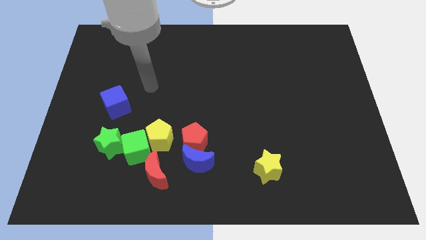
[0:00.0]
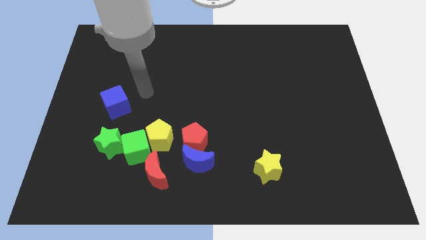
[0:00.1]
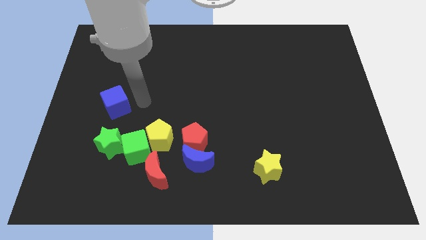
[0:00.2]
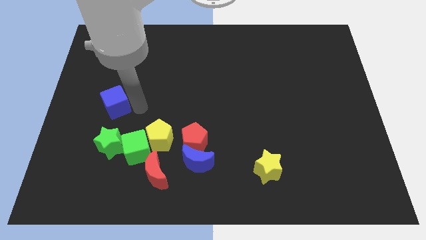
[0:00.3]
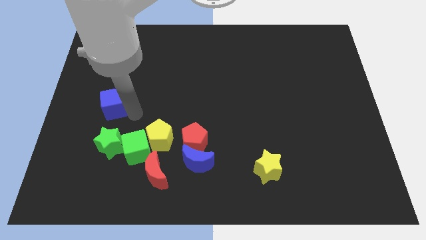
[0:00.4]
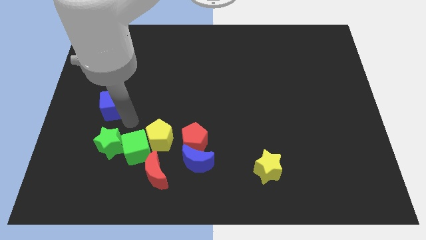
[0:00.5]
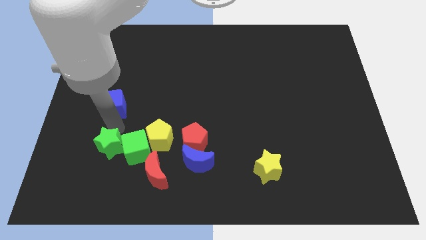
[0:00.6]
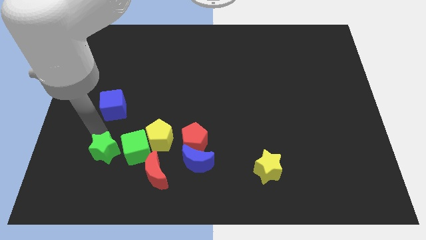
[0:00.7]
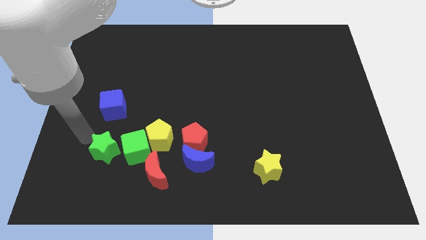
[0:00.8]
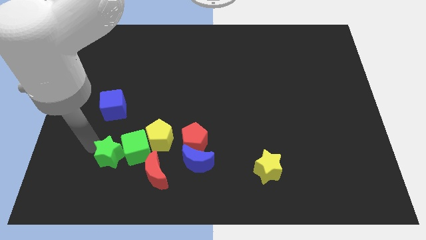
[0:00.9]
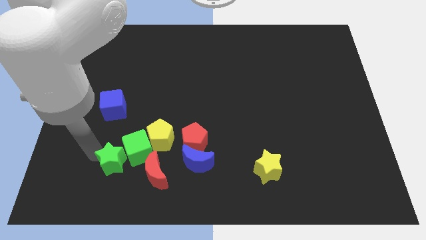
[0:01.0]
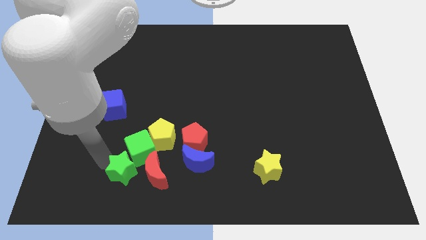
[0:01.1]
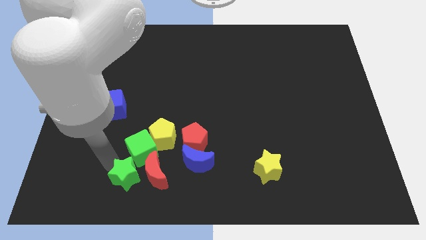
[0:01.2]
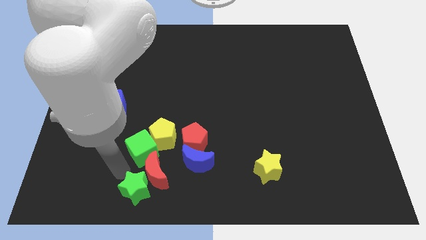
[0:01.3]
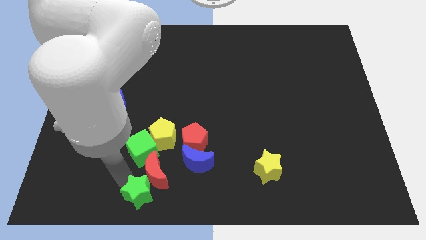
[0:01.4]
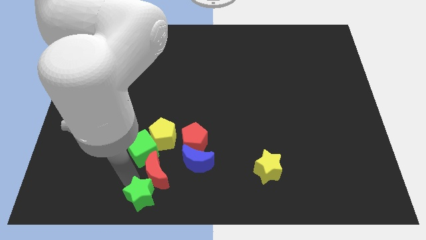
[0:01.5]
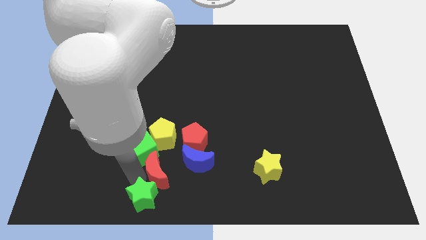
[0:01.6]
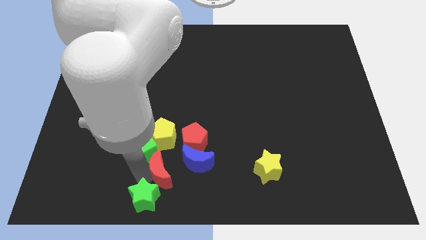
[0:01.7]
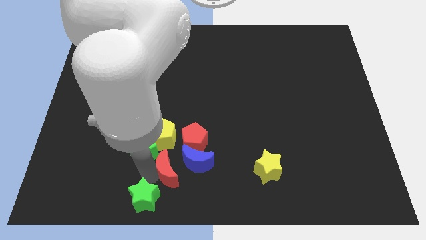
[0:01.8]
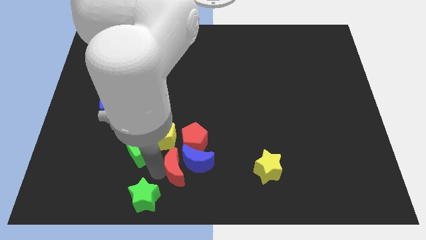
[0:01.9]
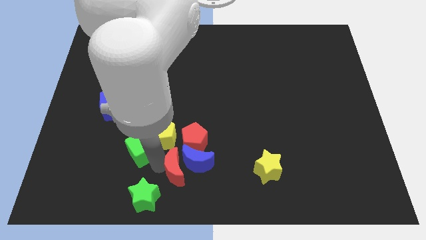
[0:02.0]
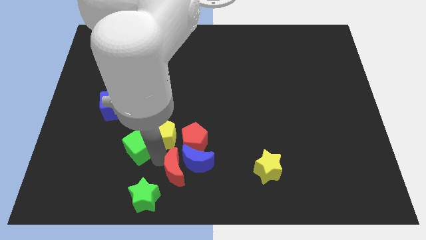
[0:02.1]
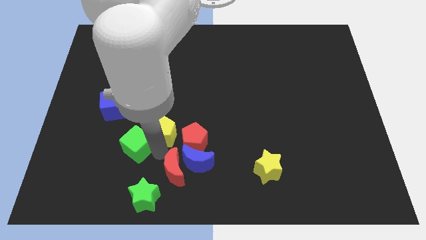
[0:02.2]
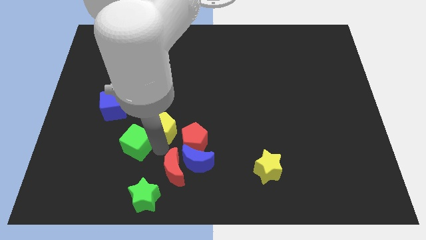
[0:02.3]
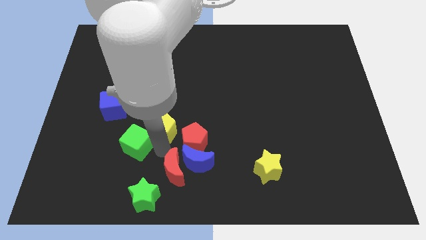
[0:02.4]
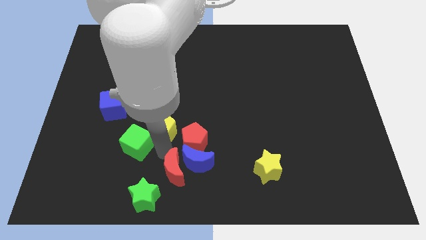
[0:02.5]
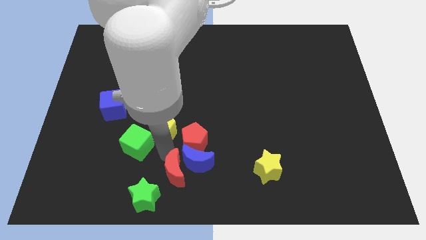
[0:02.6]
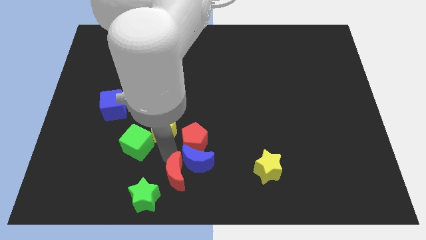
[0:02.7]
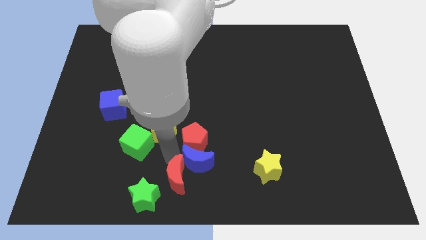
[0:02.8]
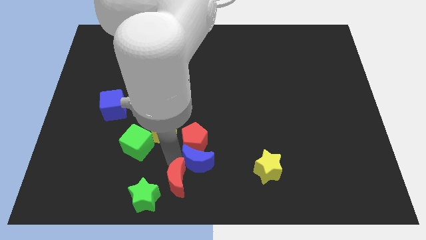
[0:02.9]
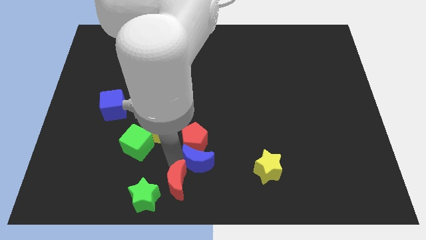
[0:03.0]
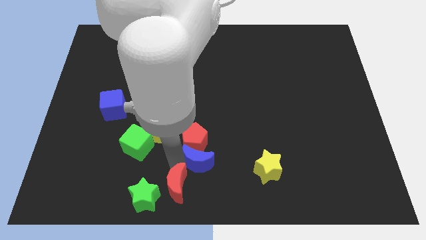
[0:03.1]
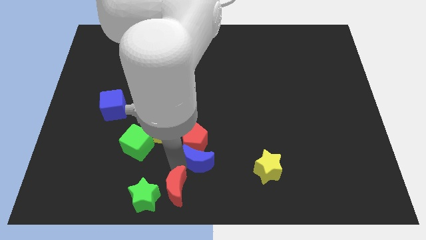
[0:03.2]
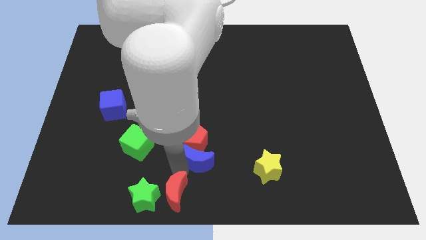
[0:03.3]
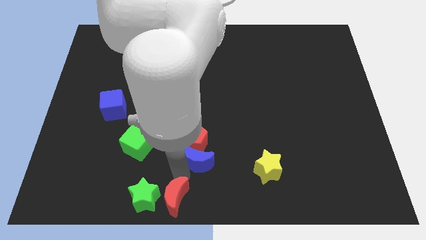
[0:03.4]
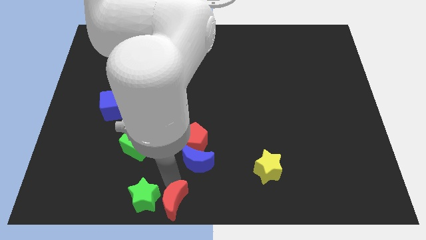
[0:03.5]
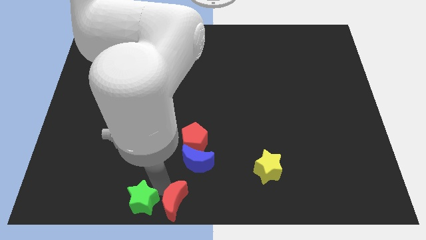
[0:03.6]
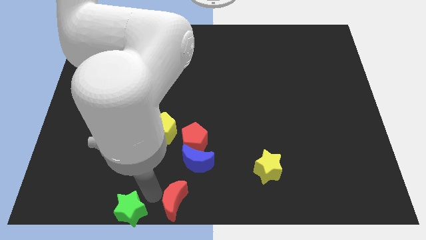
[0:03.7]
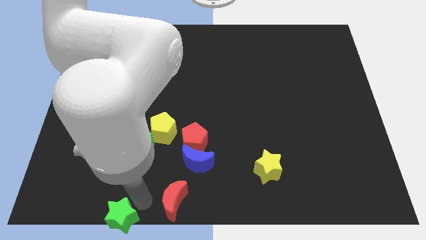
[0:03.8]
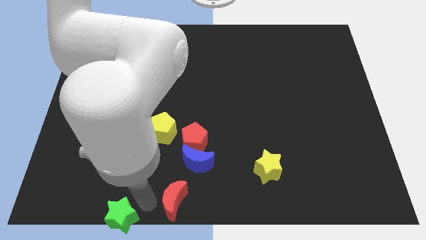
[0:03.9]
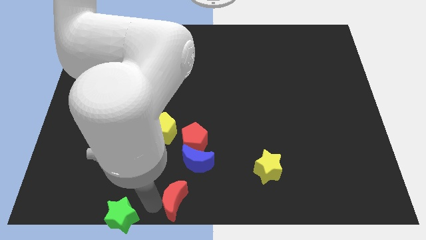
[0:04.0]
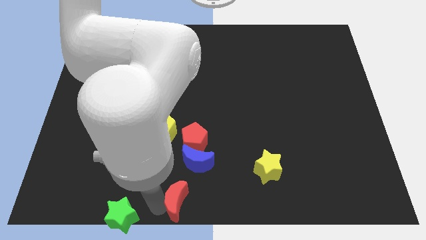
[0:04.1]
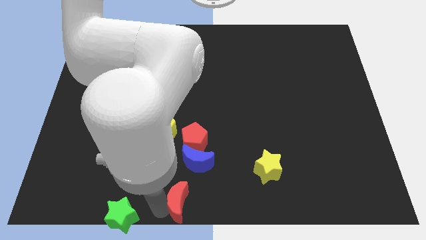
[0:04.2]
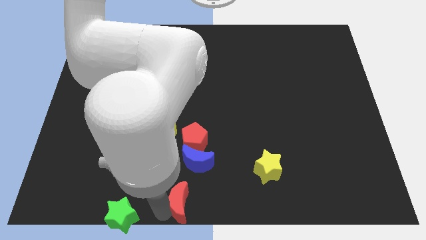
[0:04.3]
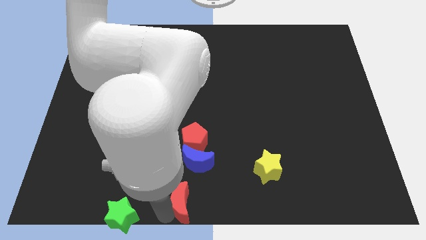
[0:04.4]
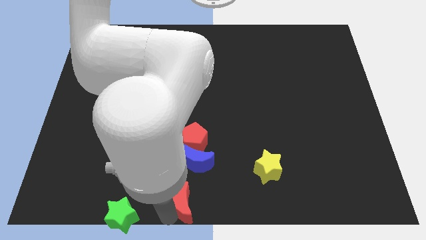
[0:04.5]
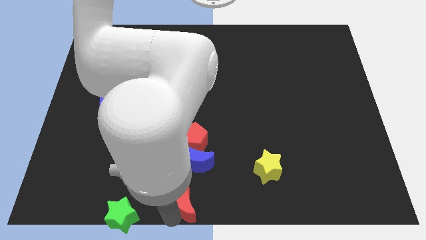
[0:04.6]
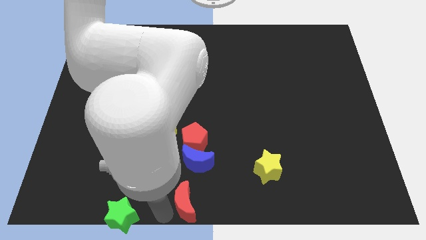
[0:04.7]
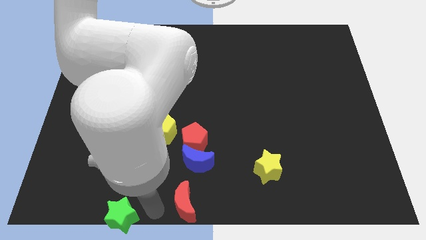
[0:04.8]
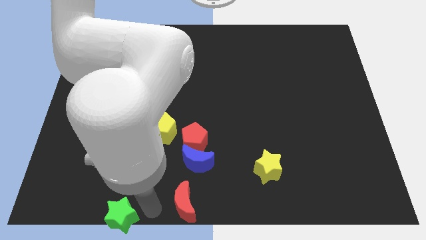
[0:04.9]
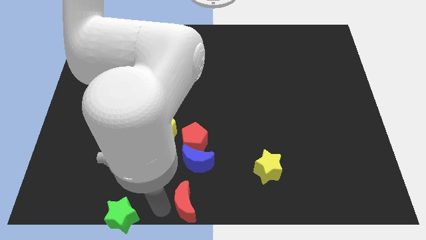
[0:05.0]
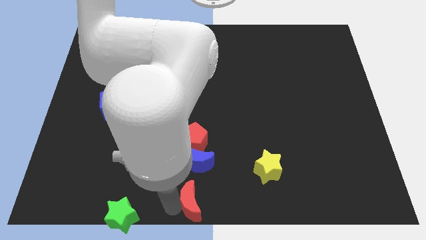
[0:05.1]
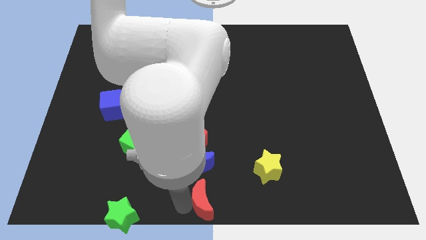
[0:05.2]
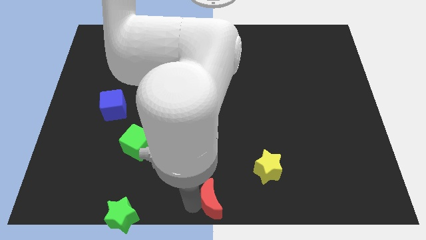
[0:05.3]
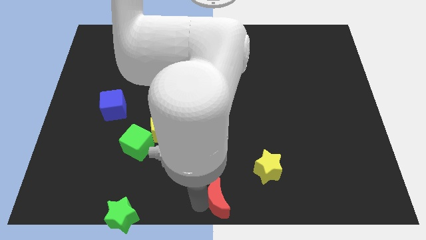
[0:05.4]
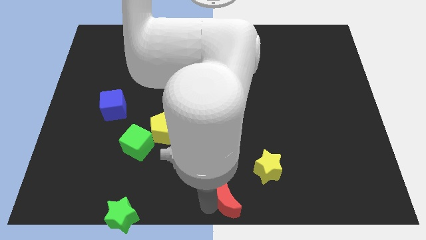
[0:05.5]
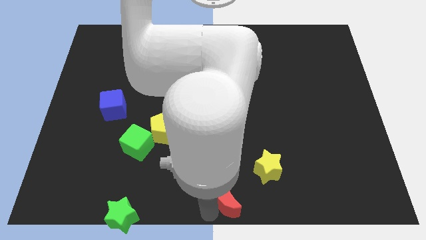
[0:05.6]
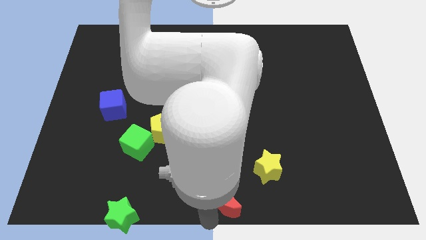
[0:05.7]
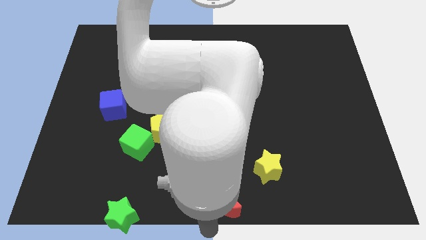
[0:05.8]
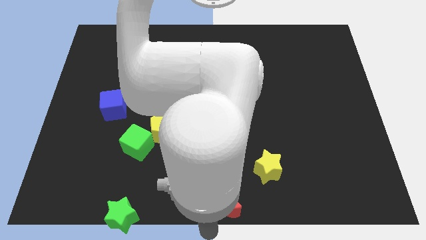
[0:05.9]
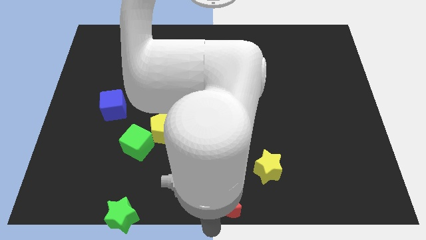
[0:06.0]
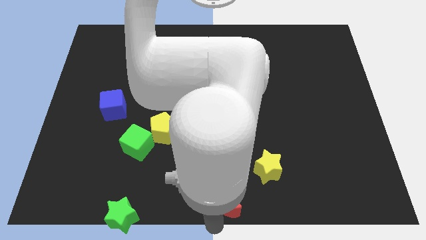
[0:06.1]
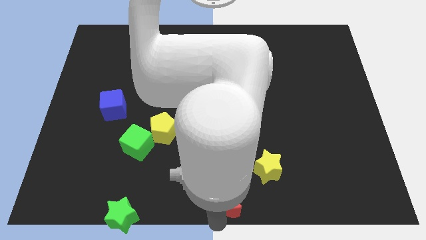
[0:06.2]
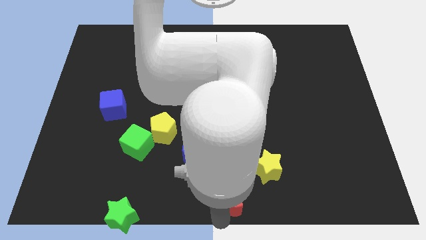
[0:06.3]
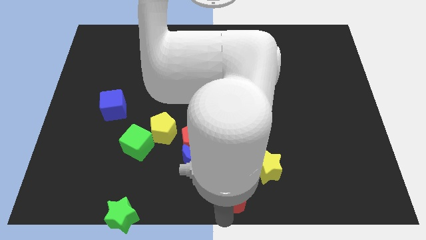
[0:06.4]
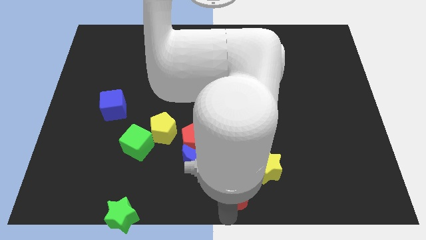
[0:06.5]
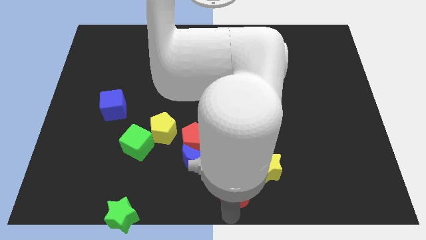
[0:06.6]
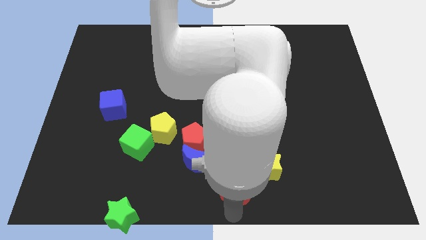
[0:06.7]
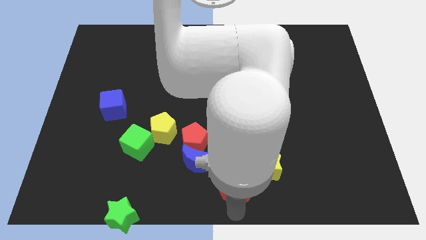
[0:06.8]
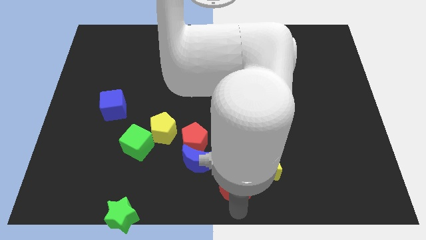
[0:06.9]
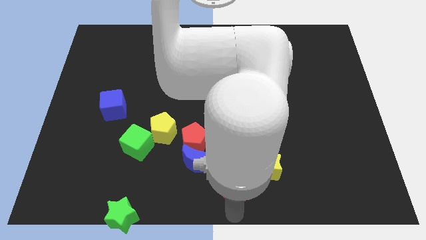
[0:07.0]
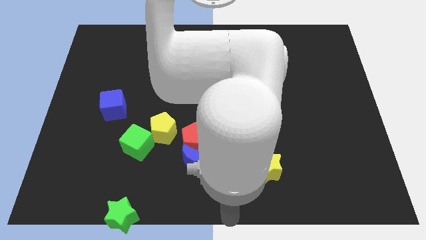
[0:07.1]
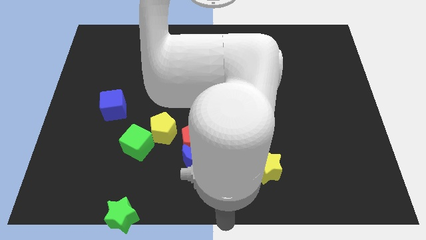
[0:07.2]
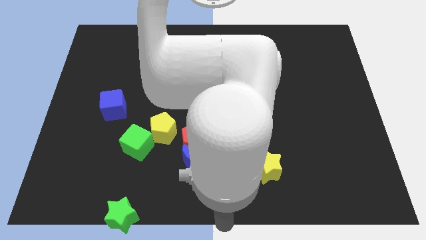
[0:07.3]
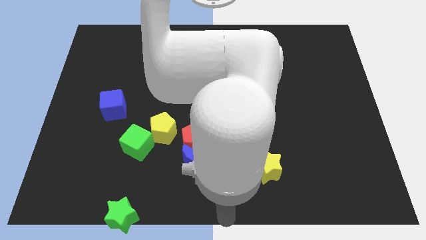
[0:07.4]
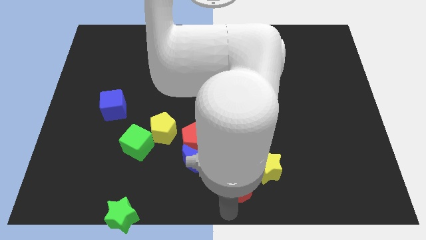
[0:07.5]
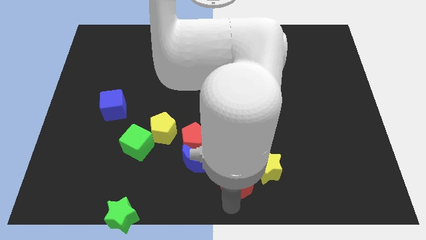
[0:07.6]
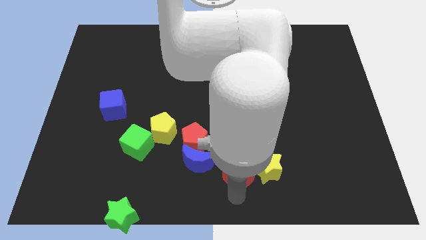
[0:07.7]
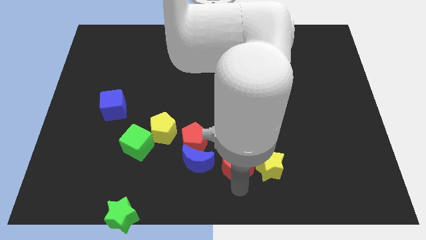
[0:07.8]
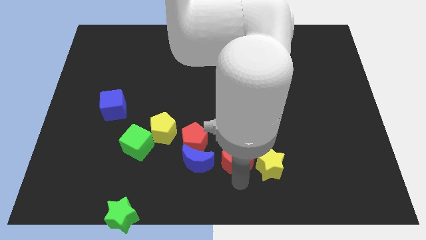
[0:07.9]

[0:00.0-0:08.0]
move the red moon slightly diagonally upwards and to the right
